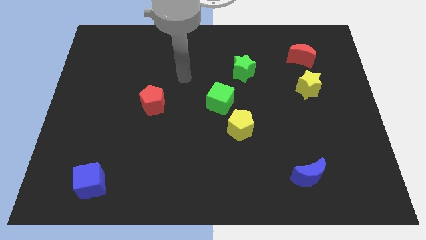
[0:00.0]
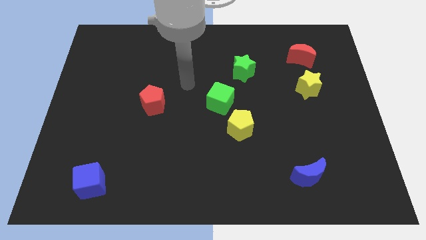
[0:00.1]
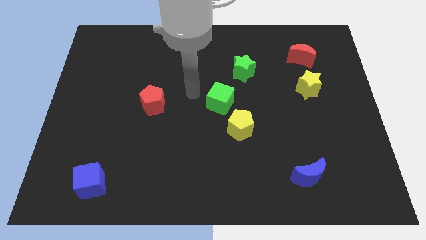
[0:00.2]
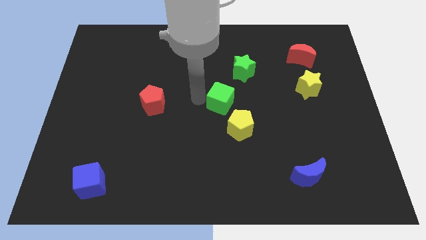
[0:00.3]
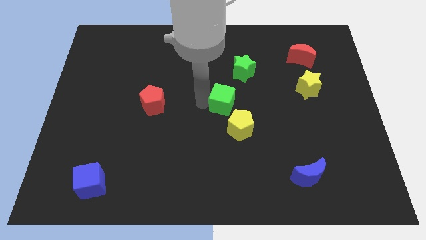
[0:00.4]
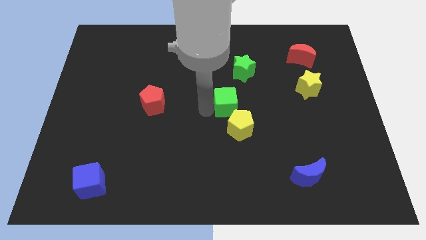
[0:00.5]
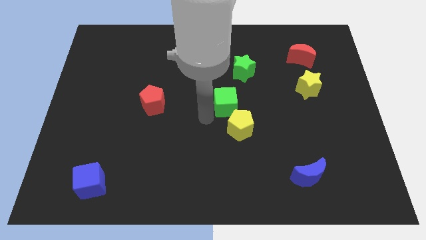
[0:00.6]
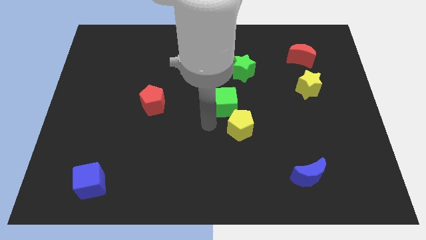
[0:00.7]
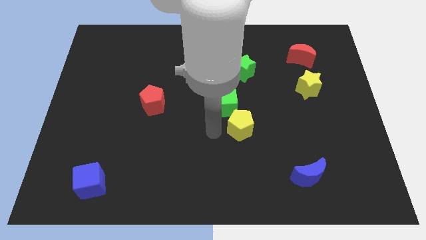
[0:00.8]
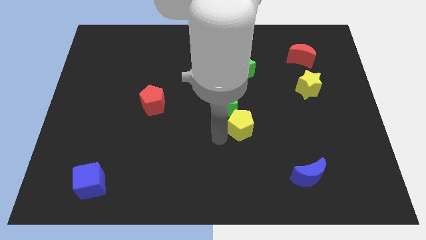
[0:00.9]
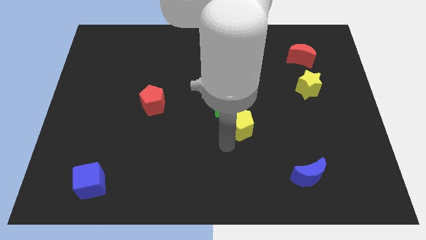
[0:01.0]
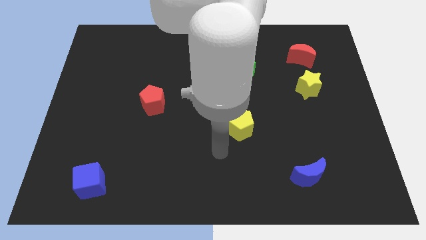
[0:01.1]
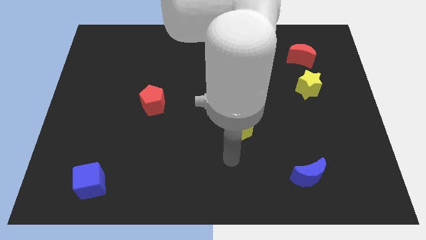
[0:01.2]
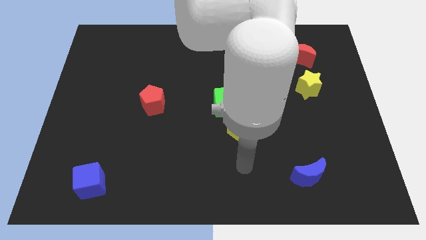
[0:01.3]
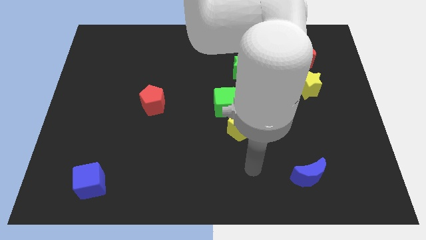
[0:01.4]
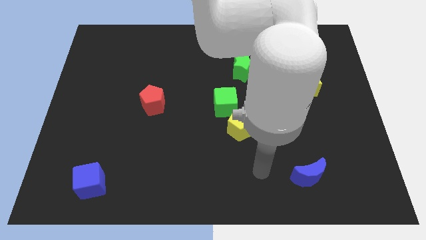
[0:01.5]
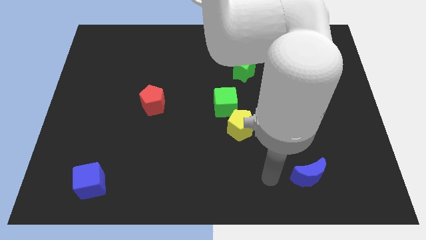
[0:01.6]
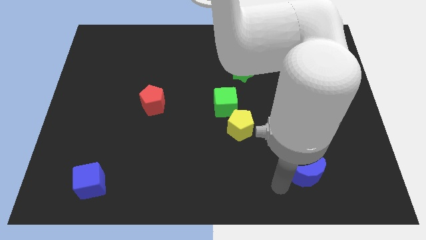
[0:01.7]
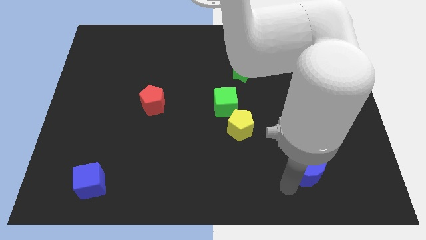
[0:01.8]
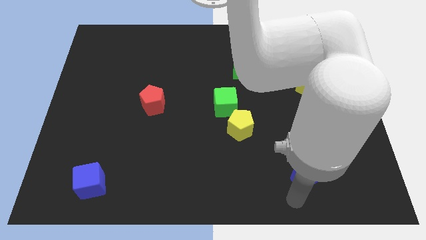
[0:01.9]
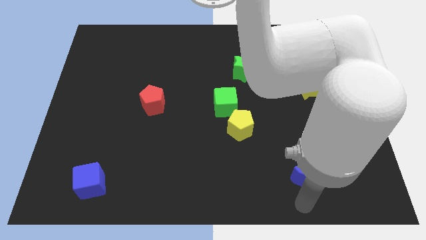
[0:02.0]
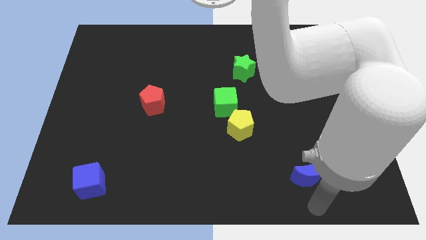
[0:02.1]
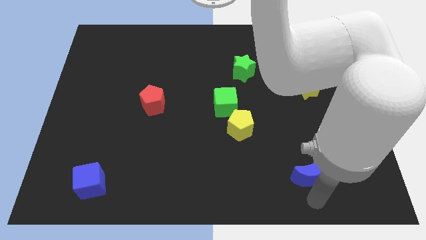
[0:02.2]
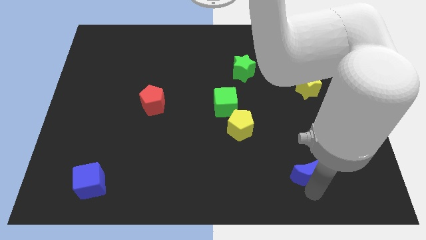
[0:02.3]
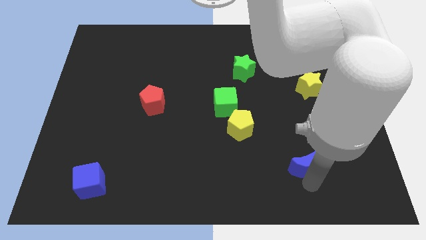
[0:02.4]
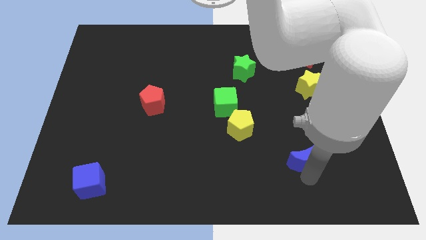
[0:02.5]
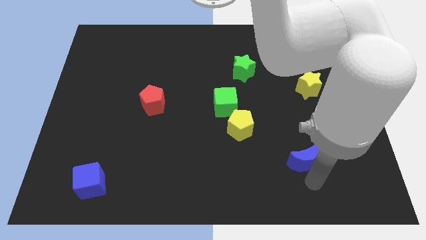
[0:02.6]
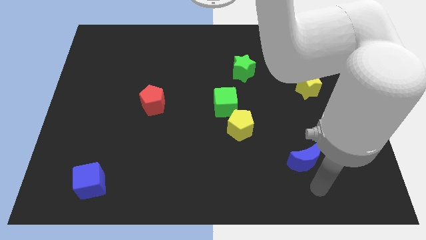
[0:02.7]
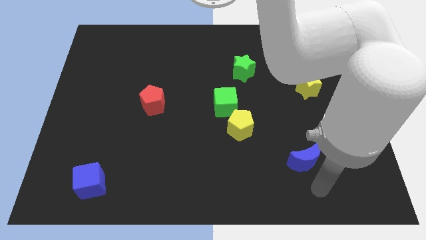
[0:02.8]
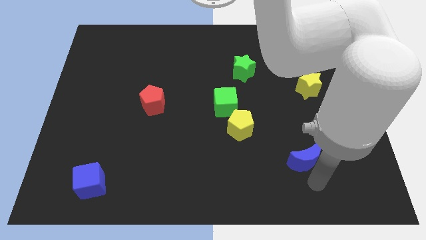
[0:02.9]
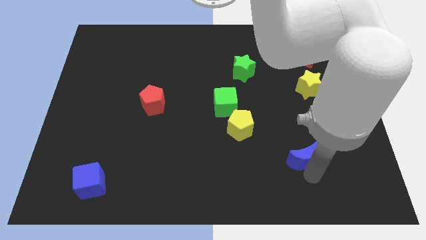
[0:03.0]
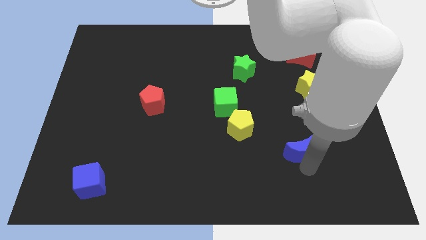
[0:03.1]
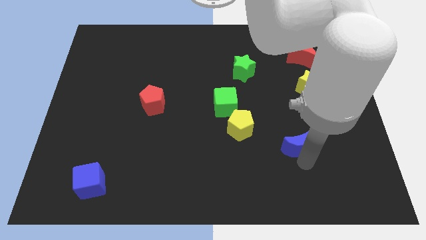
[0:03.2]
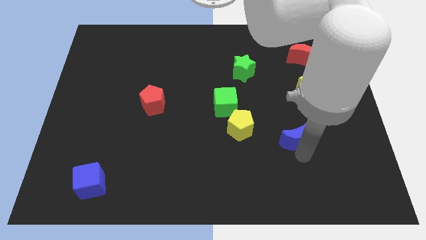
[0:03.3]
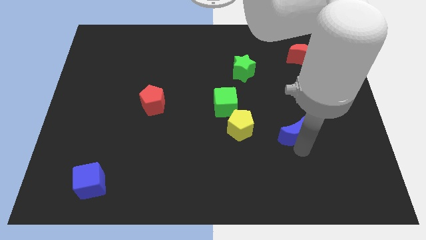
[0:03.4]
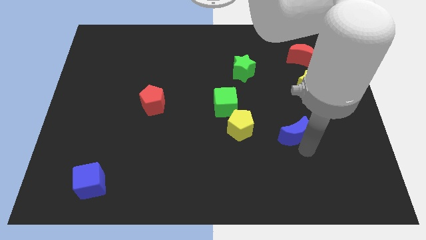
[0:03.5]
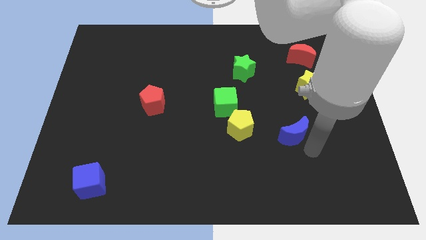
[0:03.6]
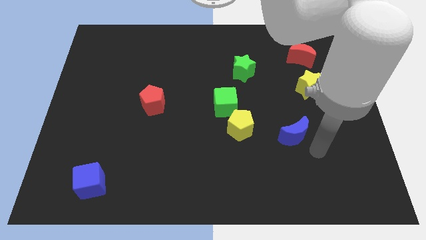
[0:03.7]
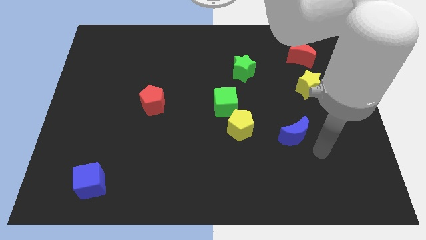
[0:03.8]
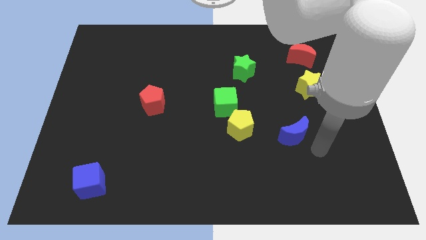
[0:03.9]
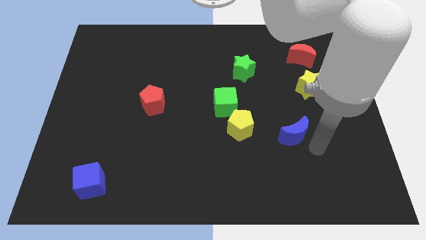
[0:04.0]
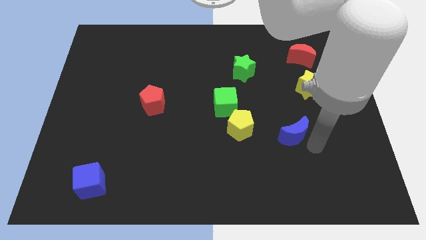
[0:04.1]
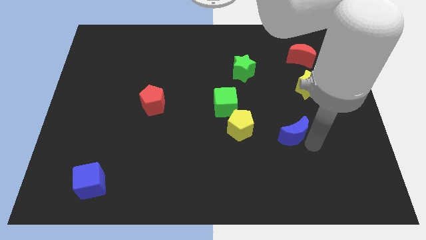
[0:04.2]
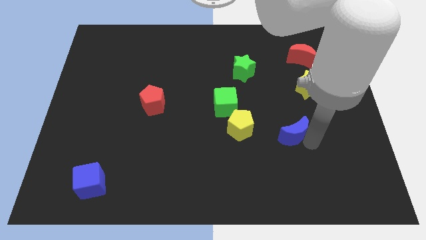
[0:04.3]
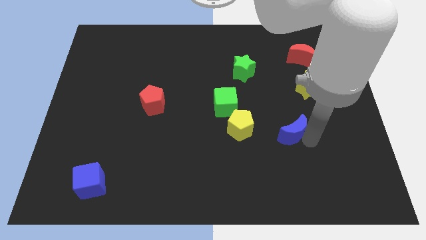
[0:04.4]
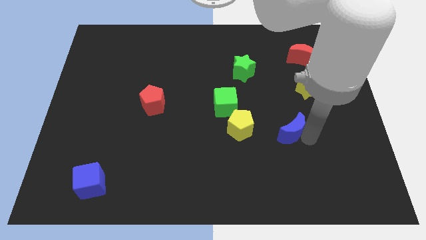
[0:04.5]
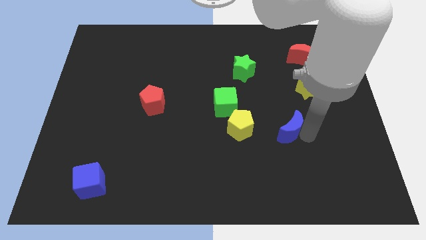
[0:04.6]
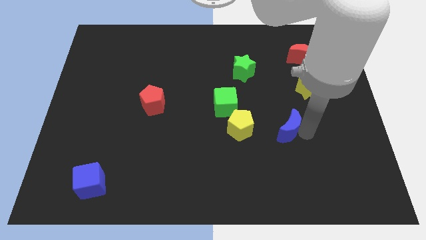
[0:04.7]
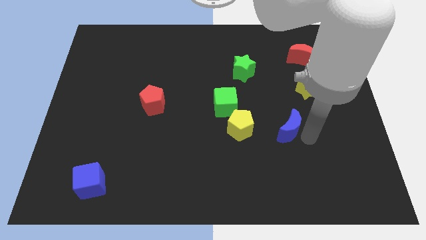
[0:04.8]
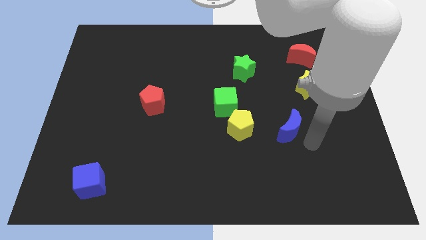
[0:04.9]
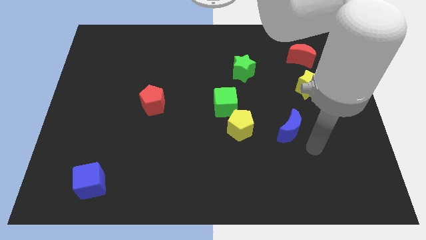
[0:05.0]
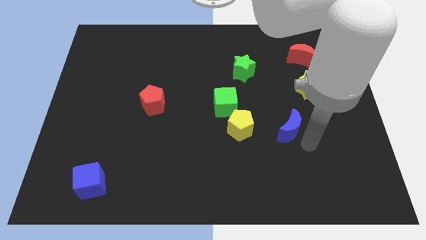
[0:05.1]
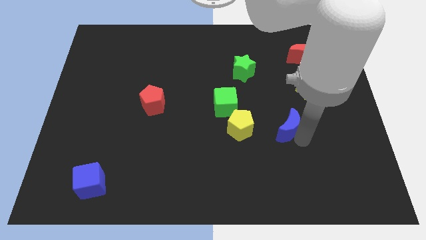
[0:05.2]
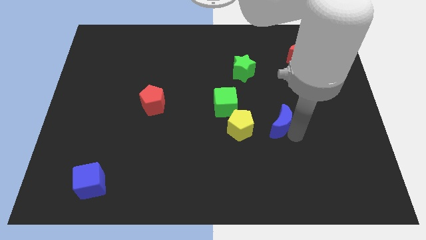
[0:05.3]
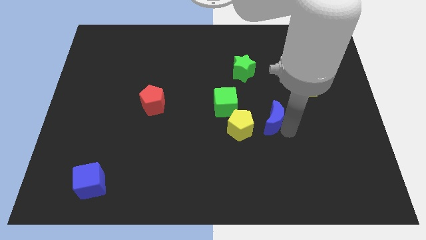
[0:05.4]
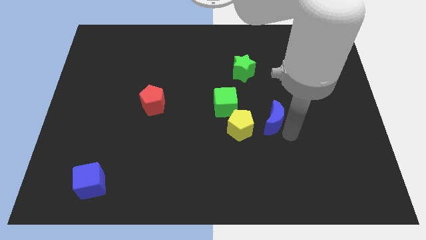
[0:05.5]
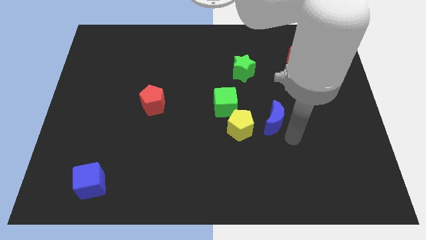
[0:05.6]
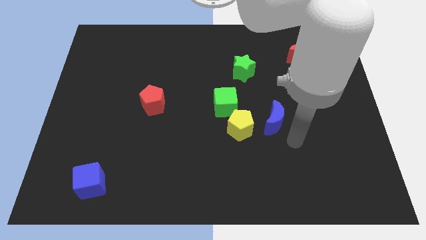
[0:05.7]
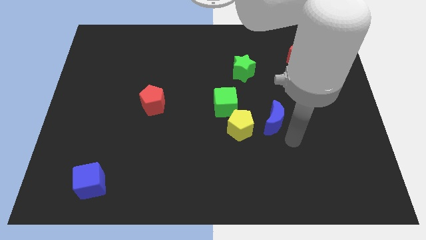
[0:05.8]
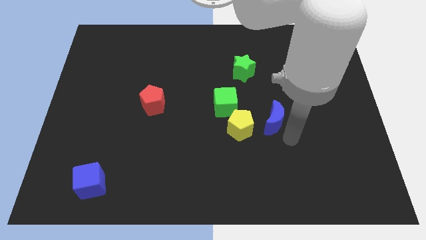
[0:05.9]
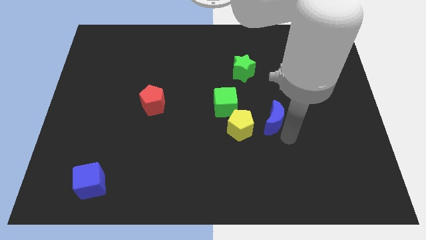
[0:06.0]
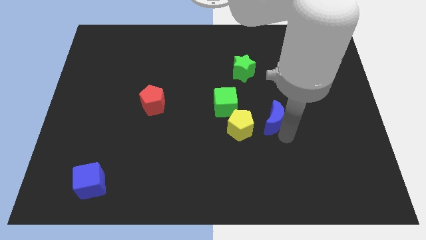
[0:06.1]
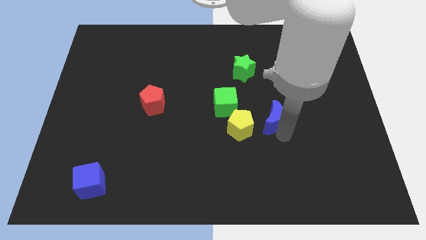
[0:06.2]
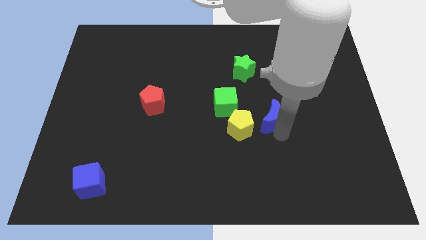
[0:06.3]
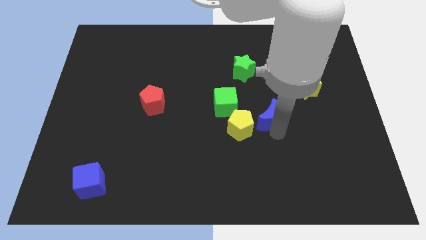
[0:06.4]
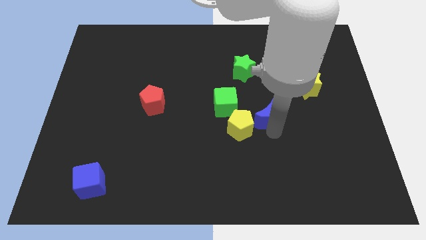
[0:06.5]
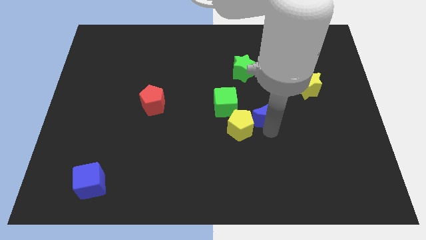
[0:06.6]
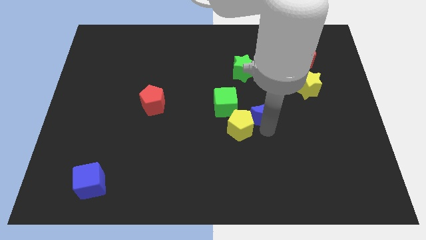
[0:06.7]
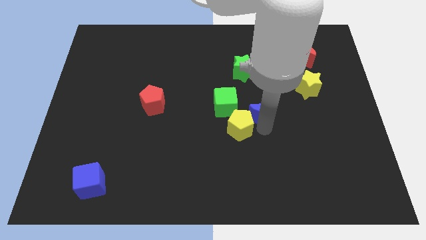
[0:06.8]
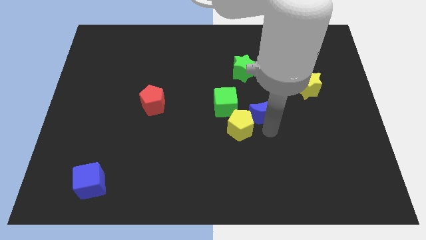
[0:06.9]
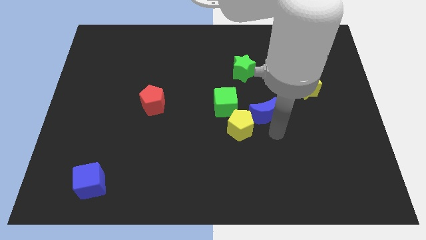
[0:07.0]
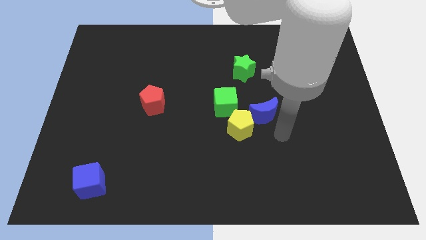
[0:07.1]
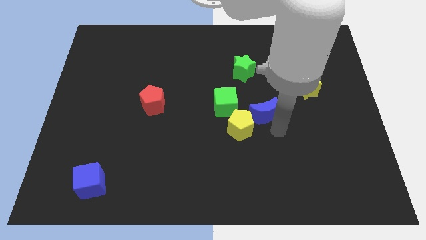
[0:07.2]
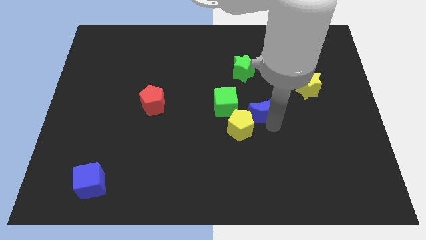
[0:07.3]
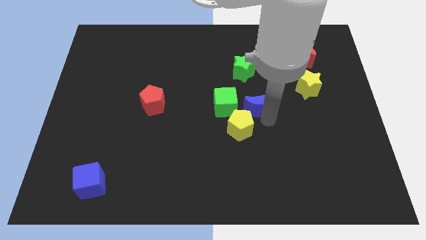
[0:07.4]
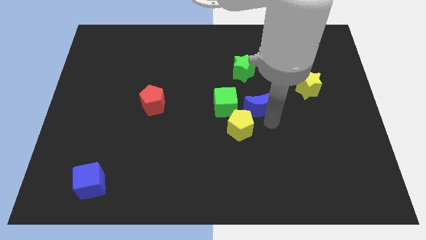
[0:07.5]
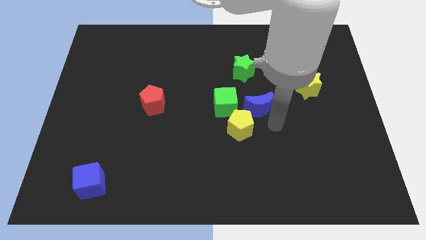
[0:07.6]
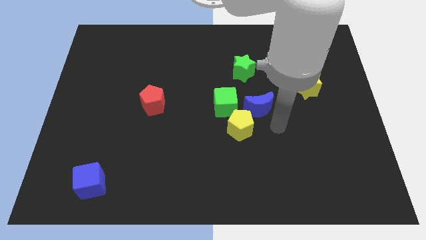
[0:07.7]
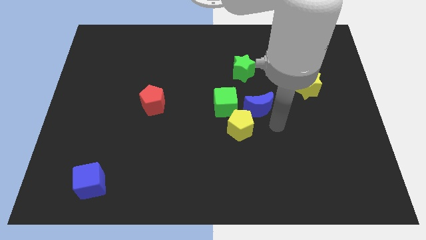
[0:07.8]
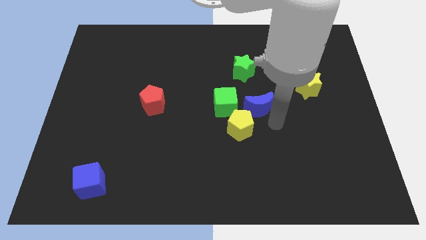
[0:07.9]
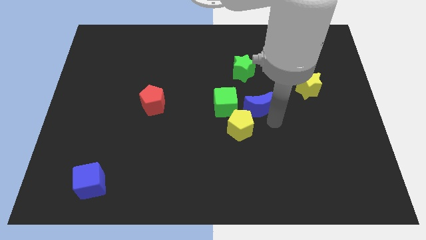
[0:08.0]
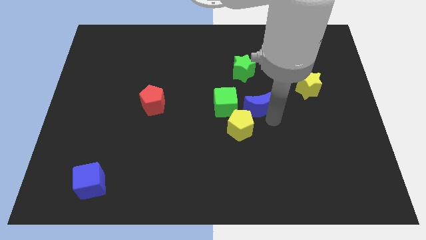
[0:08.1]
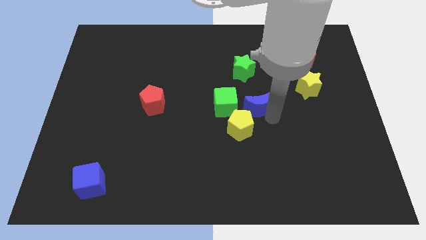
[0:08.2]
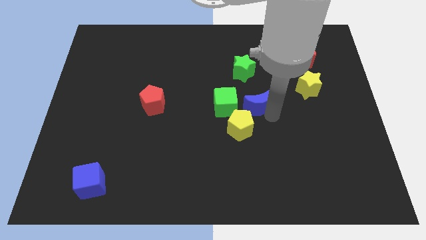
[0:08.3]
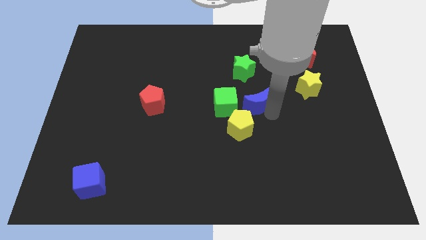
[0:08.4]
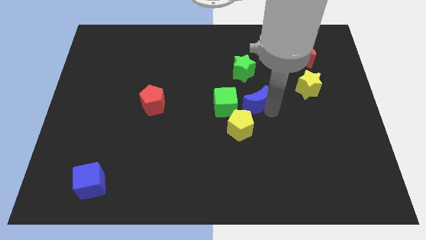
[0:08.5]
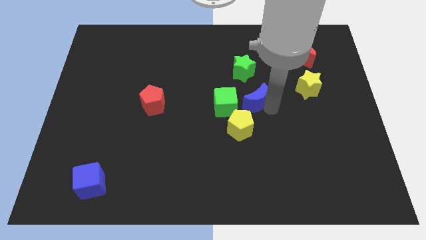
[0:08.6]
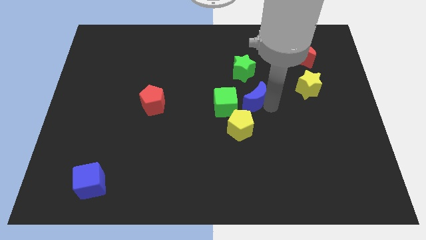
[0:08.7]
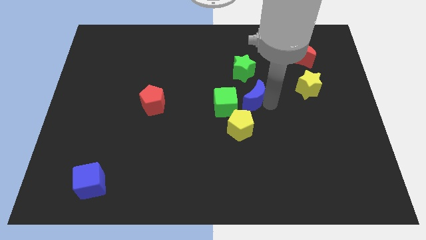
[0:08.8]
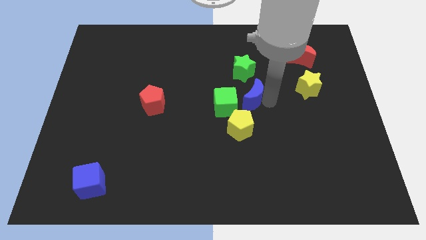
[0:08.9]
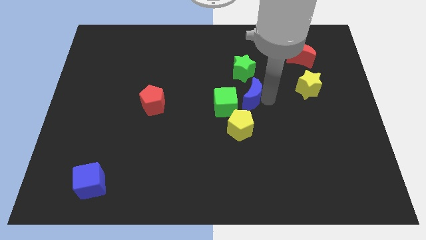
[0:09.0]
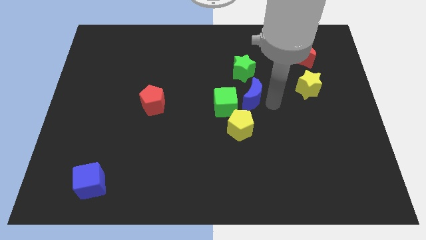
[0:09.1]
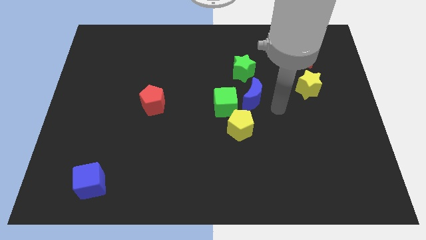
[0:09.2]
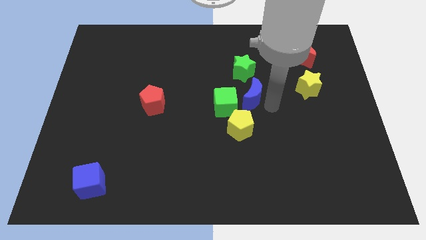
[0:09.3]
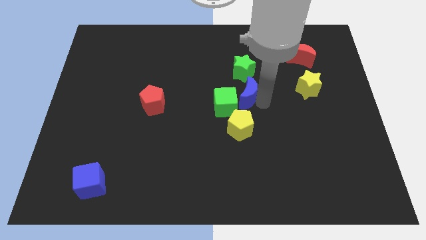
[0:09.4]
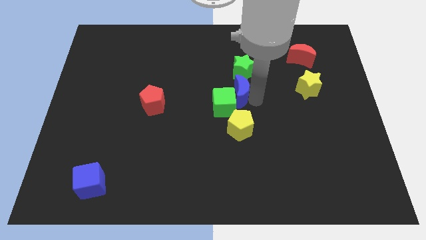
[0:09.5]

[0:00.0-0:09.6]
put the blue moon diagonally down and to the left of the green star
